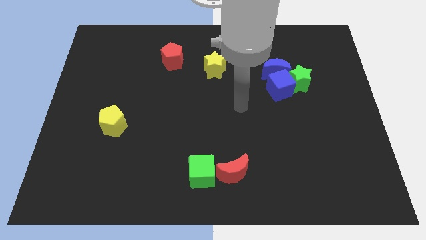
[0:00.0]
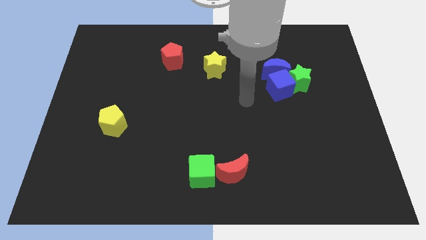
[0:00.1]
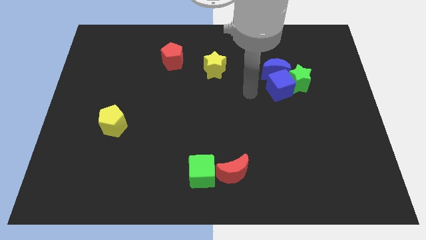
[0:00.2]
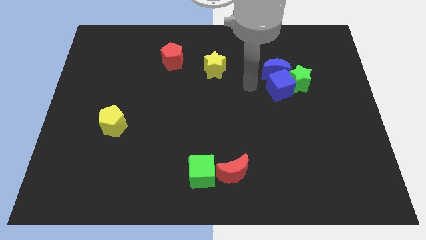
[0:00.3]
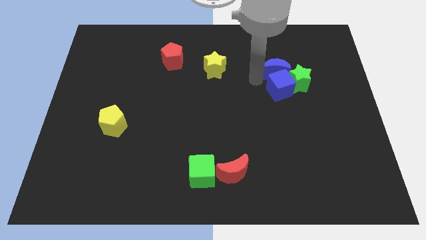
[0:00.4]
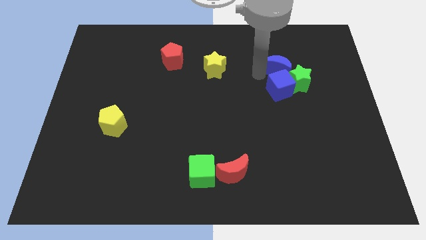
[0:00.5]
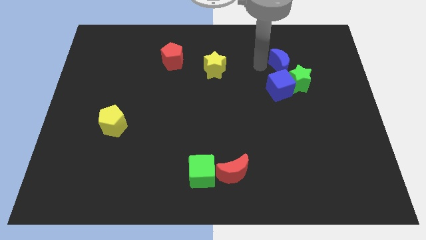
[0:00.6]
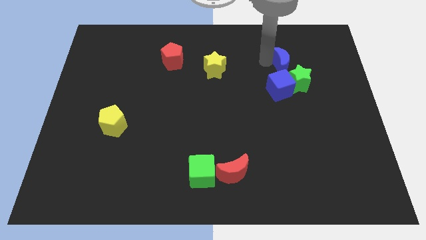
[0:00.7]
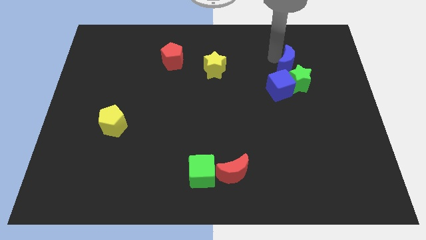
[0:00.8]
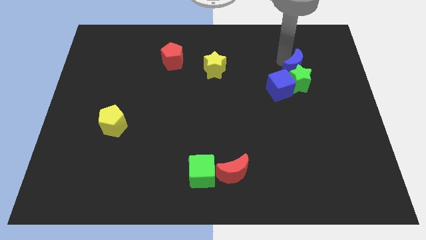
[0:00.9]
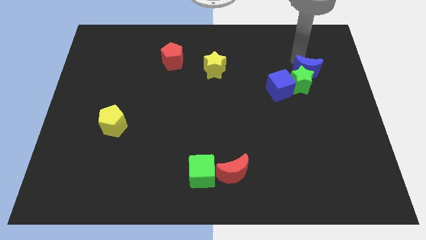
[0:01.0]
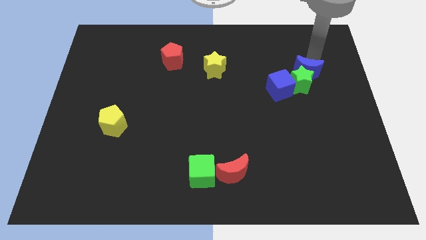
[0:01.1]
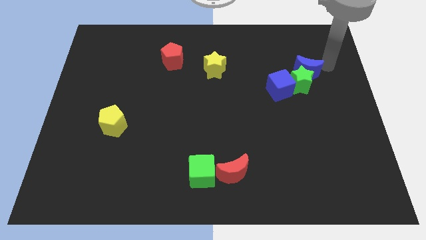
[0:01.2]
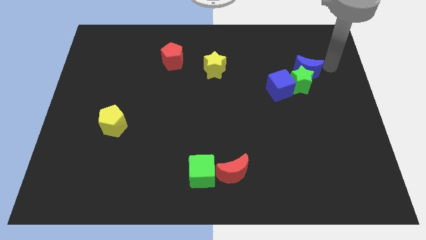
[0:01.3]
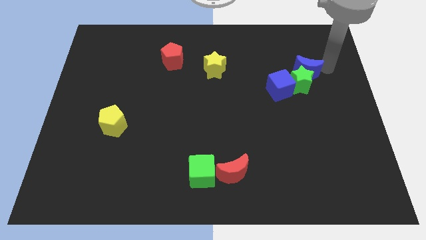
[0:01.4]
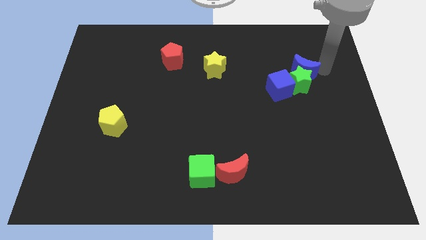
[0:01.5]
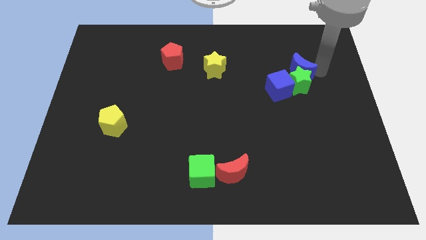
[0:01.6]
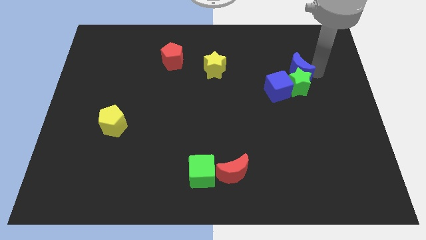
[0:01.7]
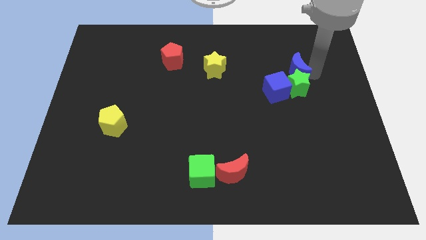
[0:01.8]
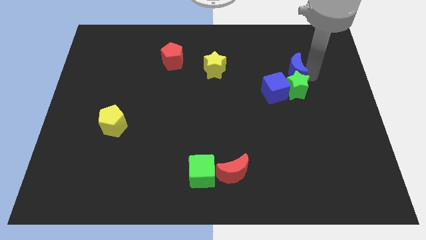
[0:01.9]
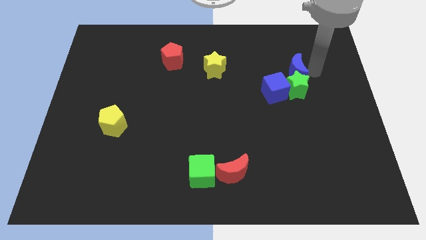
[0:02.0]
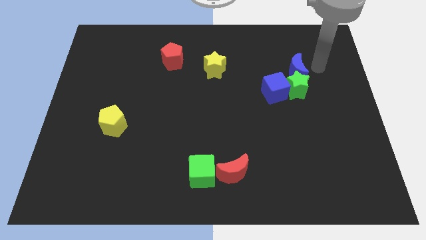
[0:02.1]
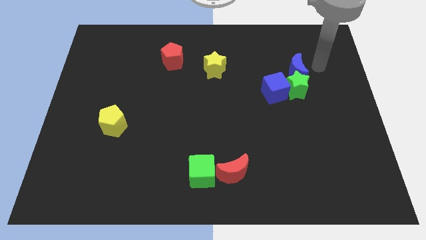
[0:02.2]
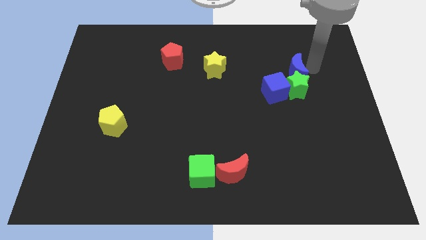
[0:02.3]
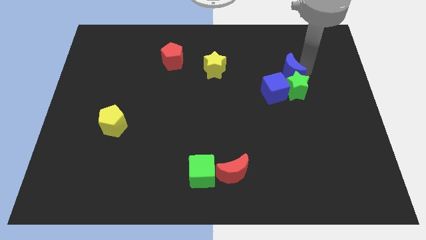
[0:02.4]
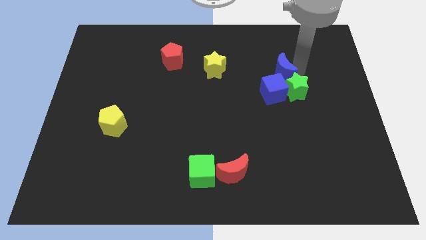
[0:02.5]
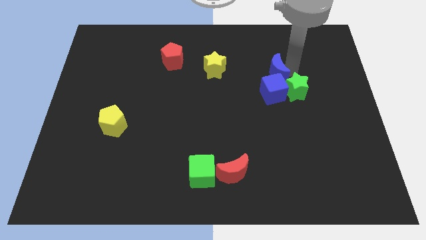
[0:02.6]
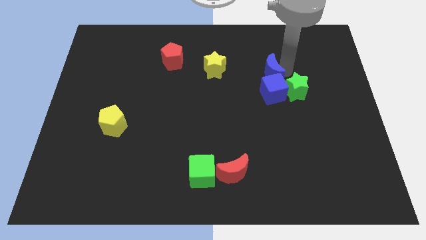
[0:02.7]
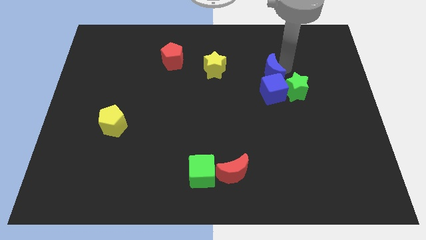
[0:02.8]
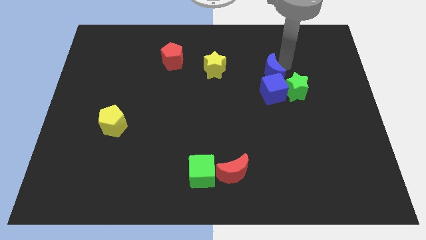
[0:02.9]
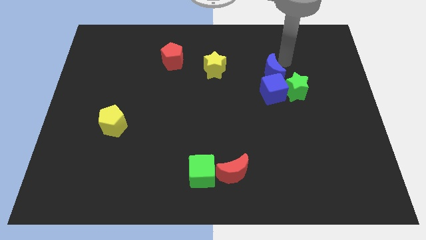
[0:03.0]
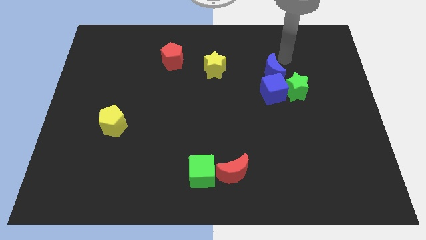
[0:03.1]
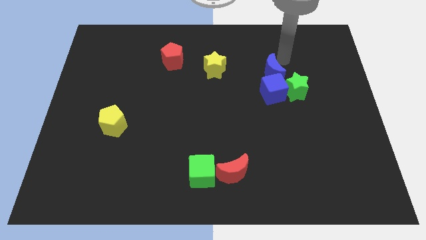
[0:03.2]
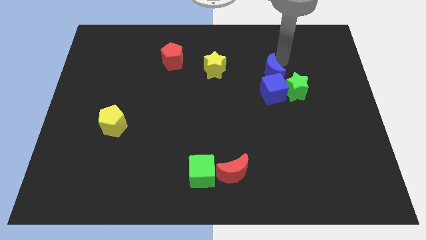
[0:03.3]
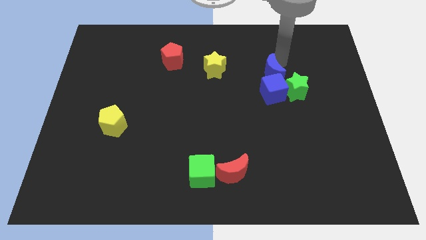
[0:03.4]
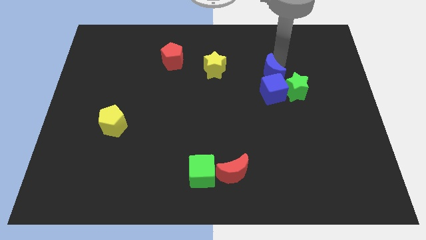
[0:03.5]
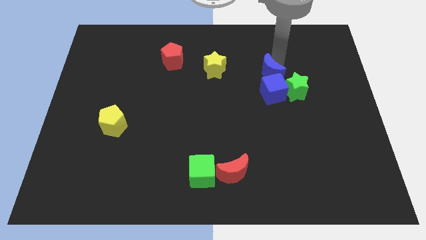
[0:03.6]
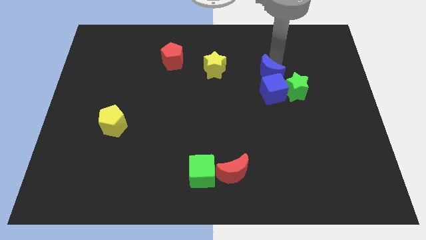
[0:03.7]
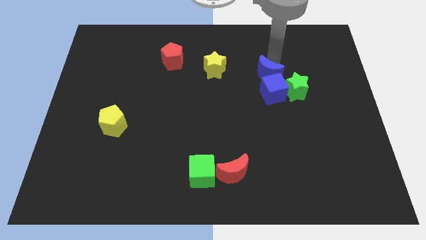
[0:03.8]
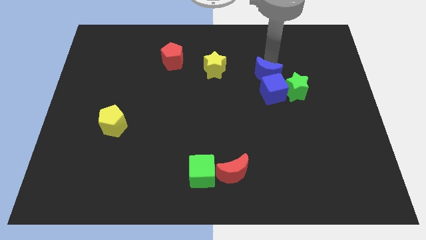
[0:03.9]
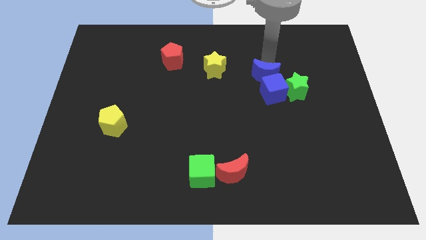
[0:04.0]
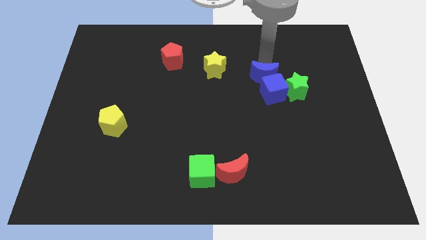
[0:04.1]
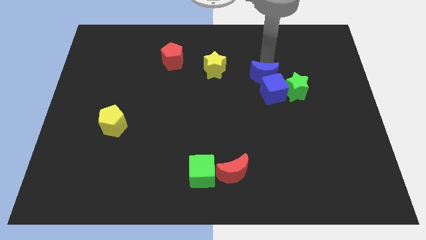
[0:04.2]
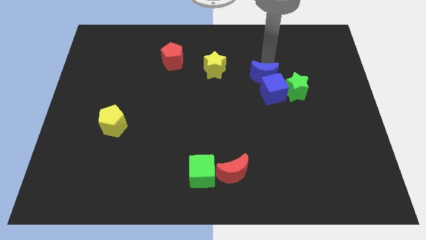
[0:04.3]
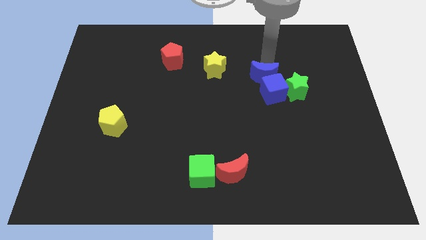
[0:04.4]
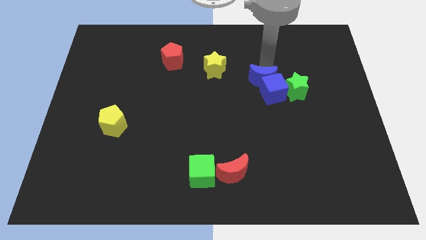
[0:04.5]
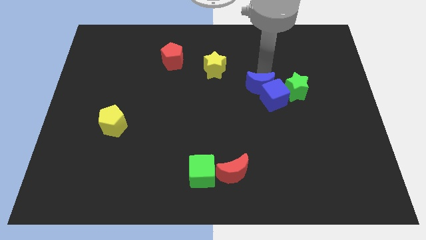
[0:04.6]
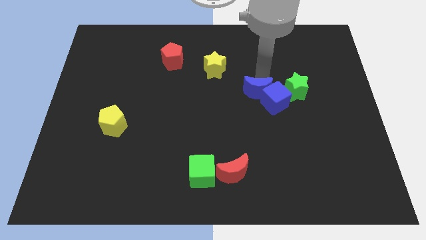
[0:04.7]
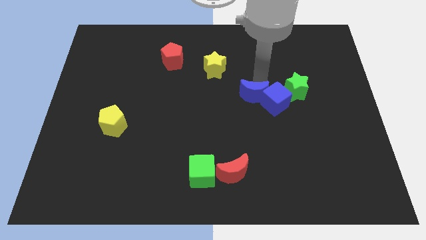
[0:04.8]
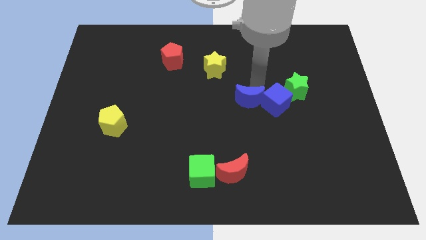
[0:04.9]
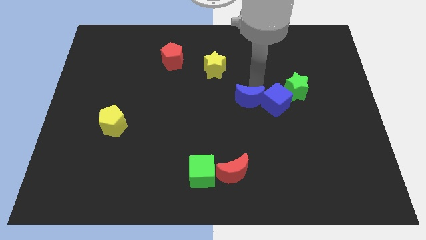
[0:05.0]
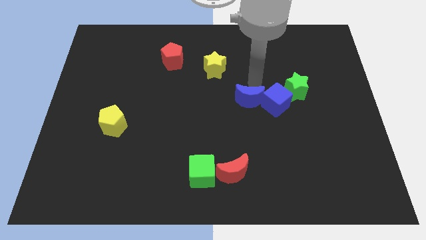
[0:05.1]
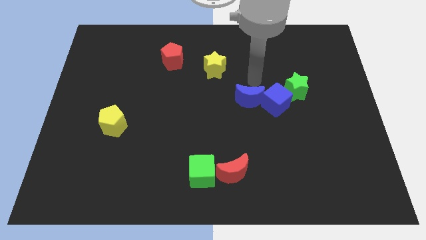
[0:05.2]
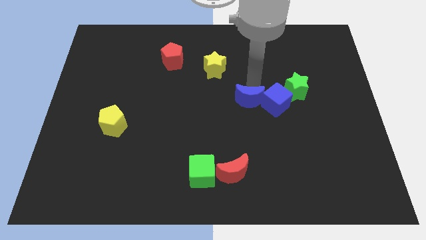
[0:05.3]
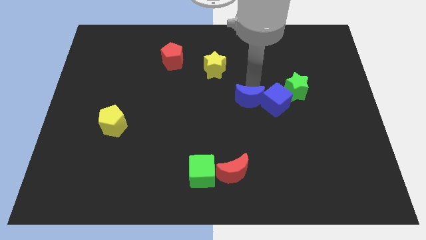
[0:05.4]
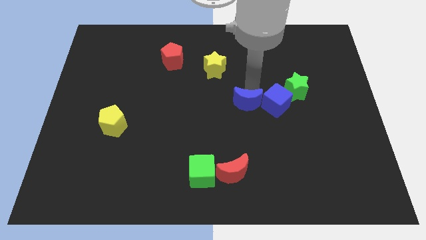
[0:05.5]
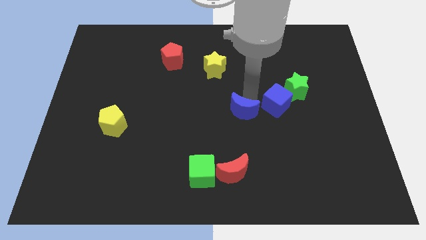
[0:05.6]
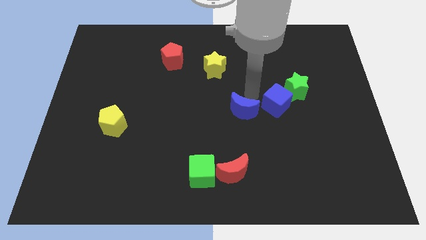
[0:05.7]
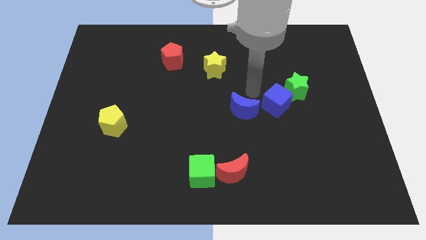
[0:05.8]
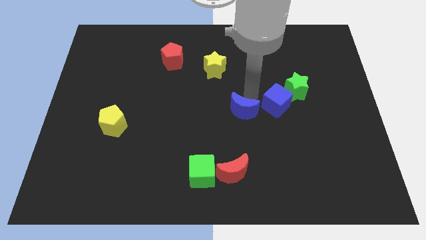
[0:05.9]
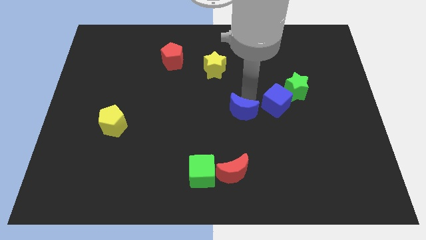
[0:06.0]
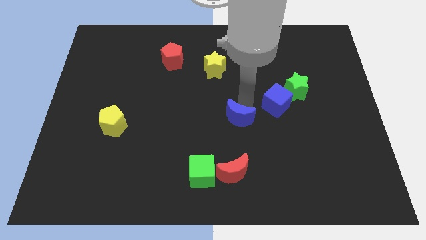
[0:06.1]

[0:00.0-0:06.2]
put the blue moon to the top side of the red moon

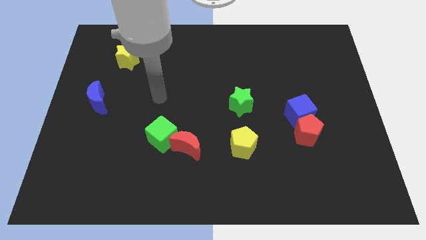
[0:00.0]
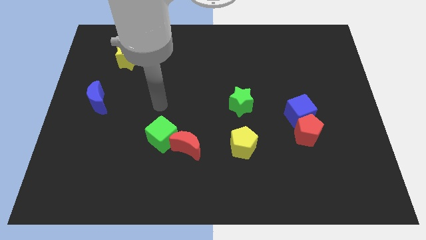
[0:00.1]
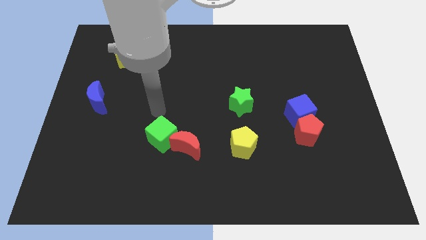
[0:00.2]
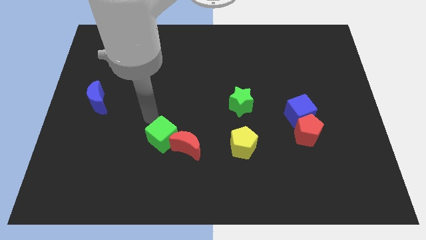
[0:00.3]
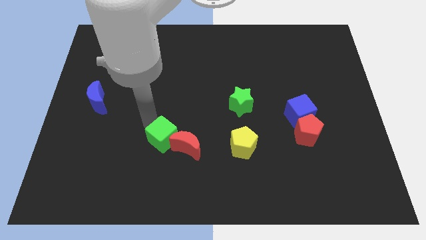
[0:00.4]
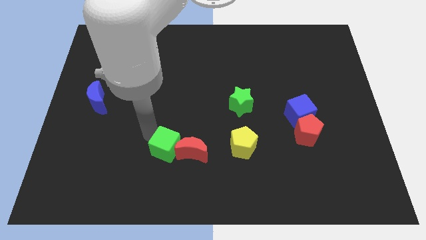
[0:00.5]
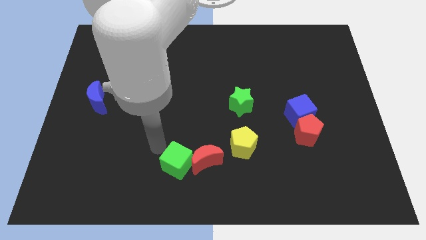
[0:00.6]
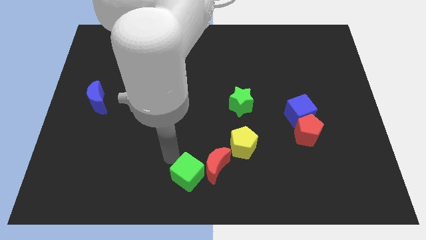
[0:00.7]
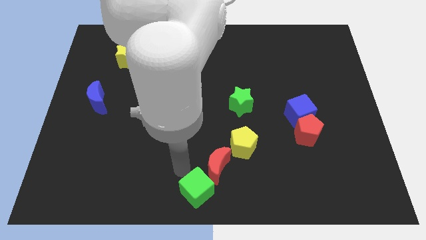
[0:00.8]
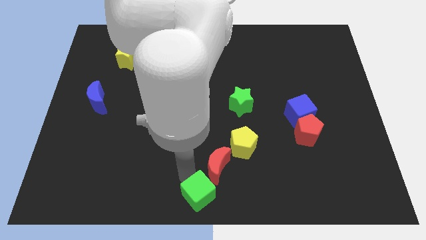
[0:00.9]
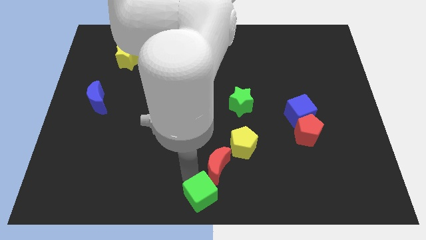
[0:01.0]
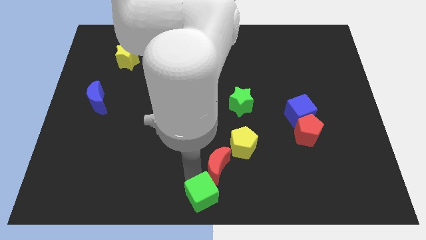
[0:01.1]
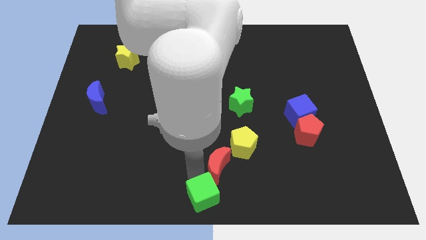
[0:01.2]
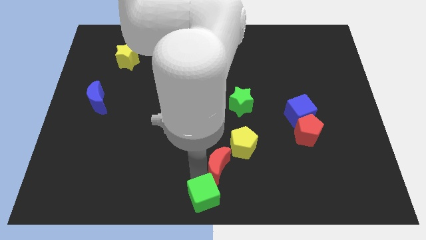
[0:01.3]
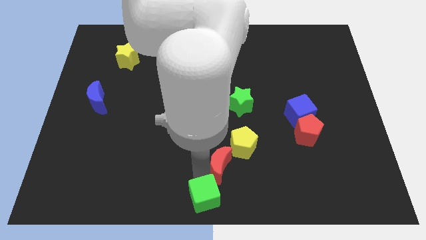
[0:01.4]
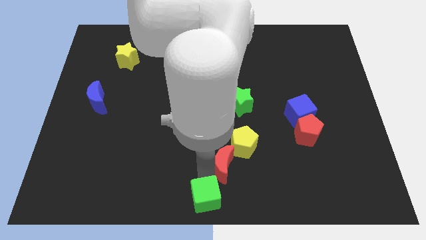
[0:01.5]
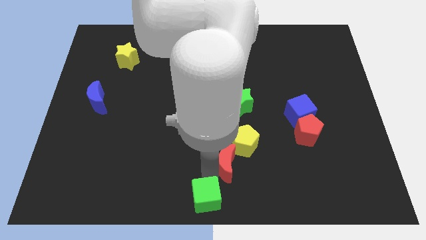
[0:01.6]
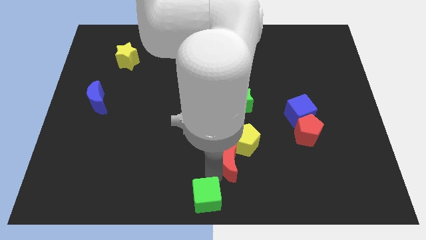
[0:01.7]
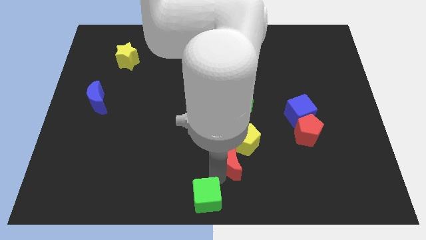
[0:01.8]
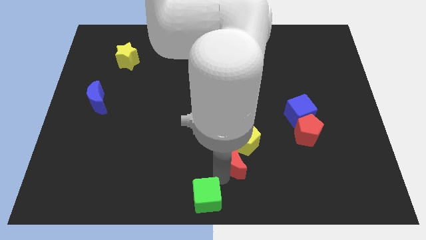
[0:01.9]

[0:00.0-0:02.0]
put the red moon below the green star
